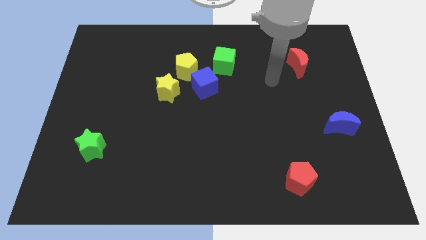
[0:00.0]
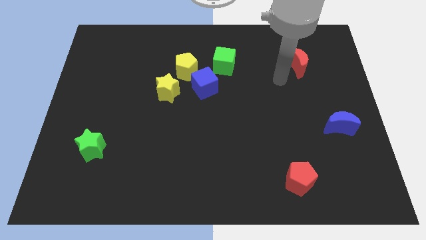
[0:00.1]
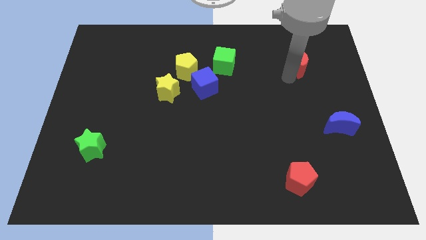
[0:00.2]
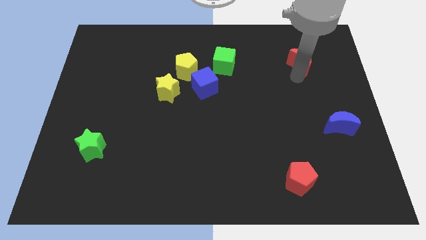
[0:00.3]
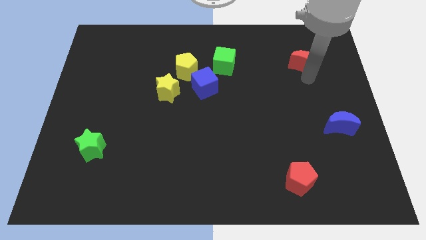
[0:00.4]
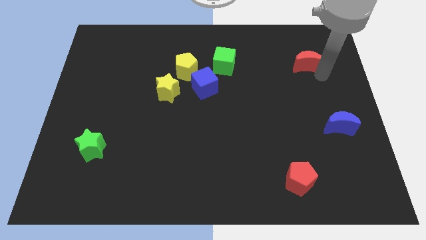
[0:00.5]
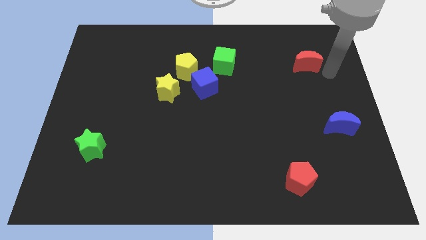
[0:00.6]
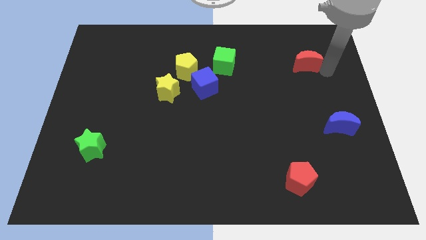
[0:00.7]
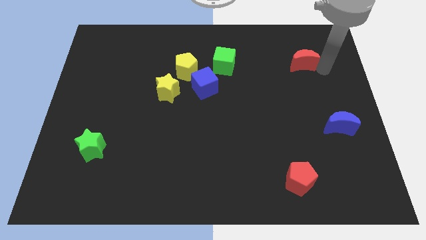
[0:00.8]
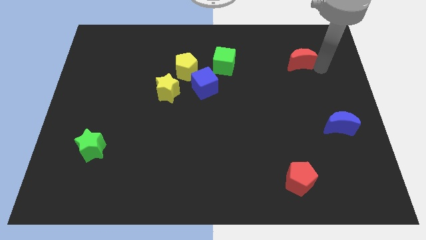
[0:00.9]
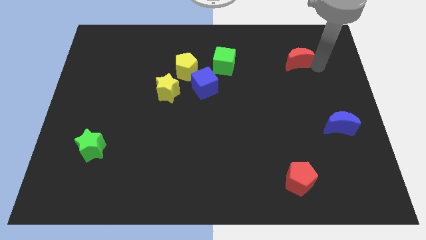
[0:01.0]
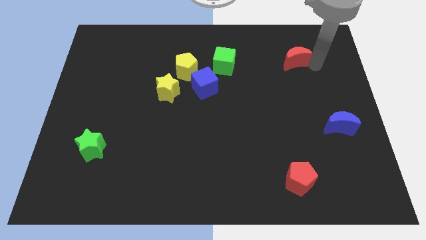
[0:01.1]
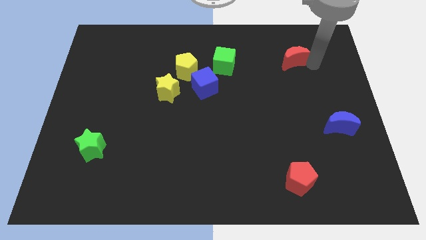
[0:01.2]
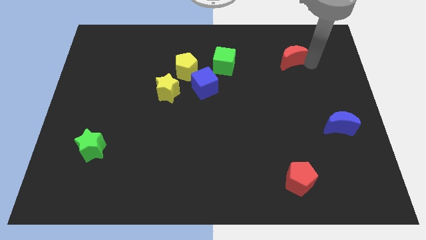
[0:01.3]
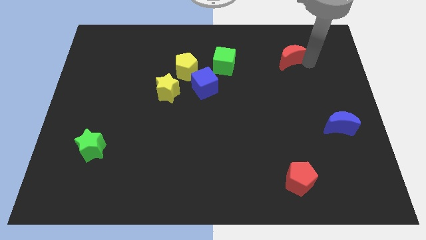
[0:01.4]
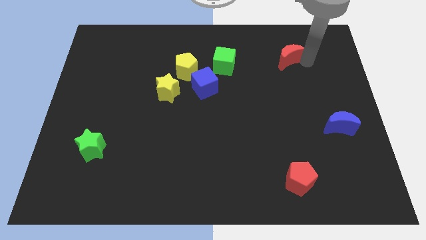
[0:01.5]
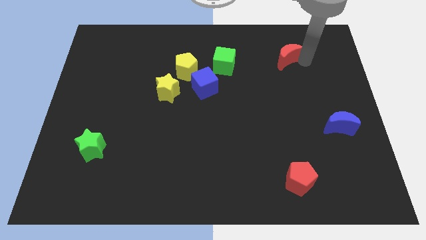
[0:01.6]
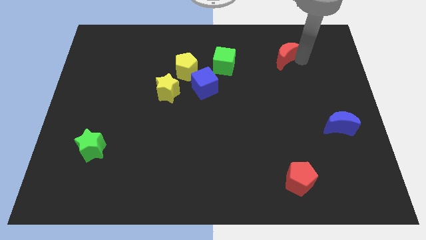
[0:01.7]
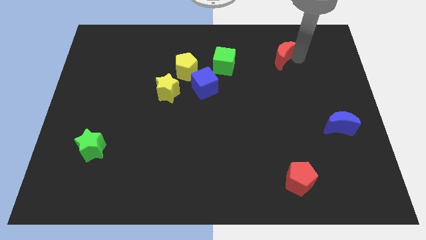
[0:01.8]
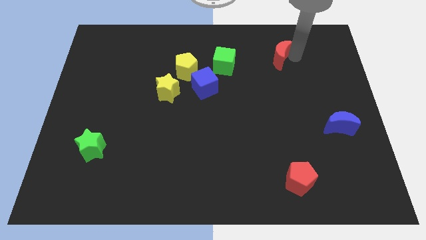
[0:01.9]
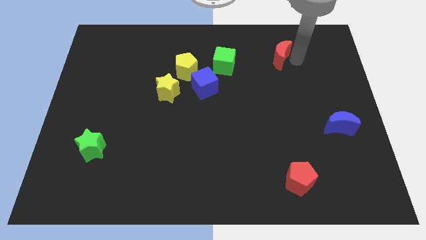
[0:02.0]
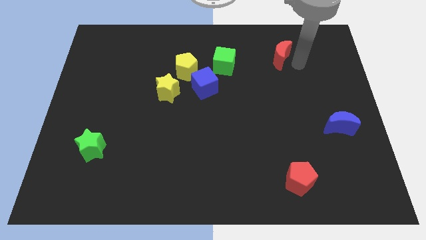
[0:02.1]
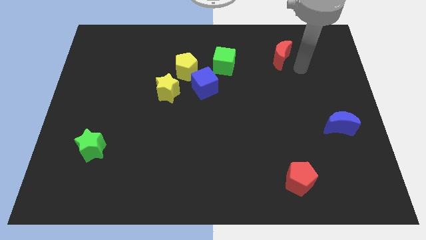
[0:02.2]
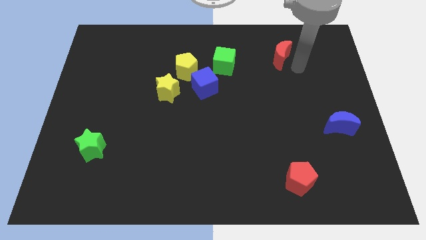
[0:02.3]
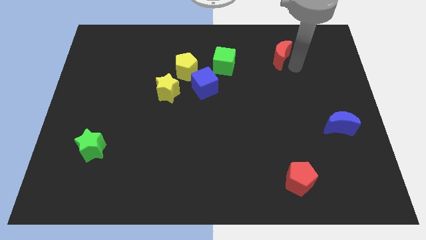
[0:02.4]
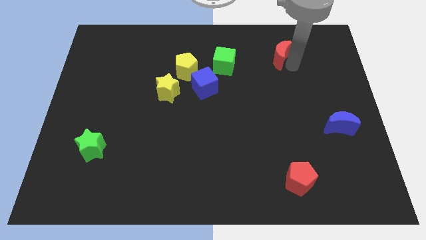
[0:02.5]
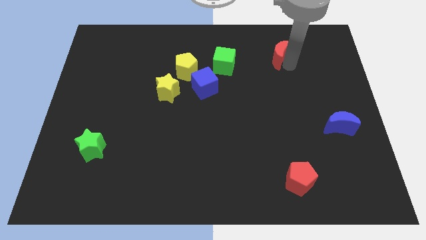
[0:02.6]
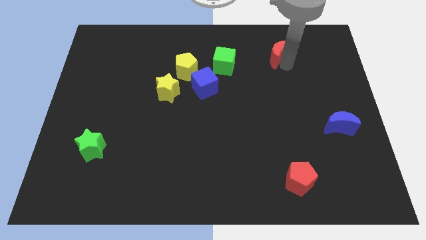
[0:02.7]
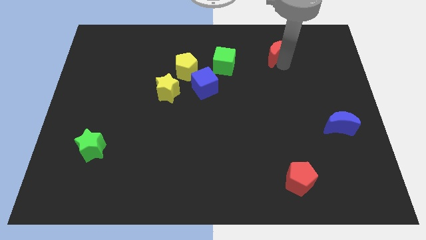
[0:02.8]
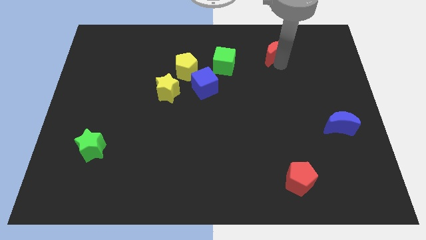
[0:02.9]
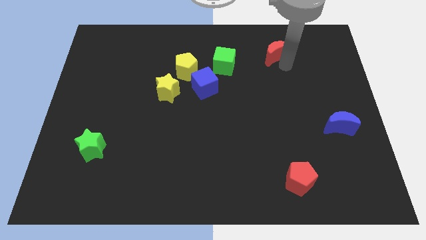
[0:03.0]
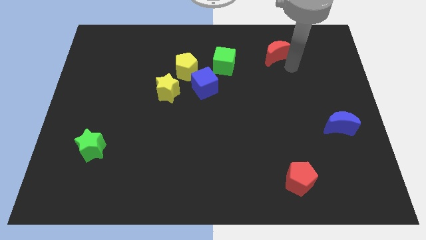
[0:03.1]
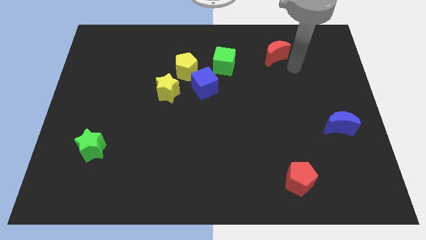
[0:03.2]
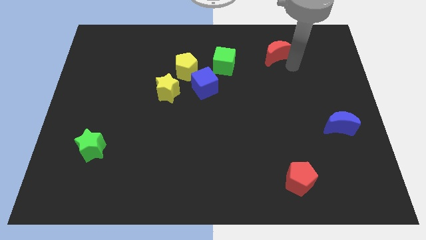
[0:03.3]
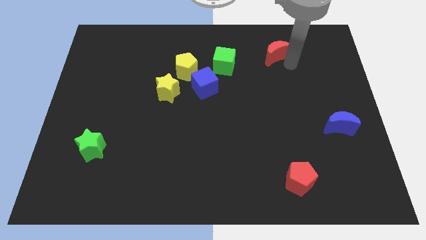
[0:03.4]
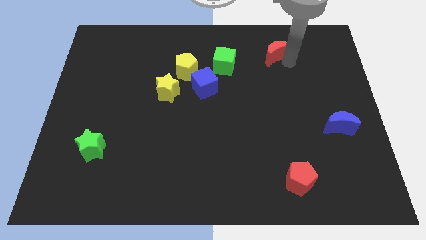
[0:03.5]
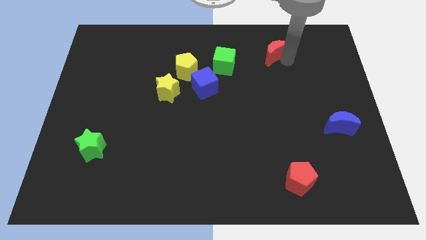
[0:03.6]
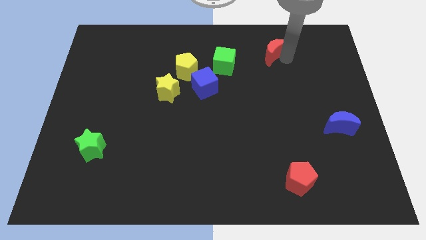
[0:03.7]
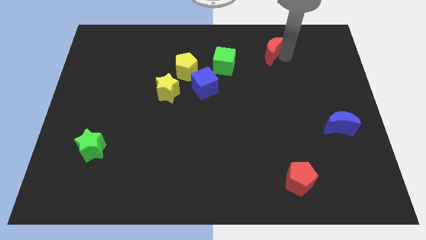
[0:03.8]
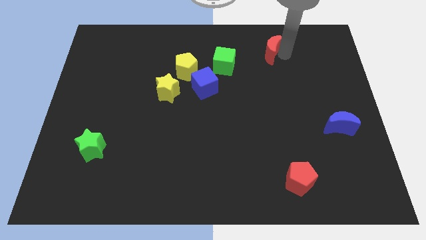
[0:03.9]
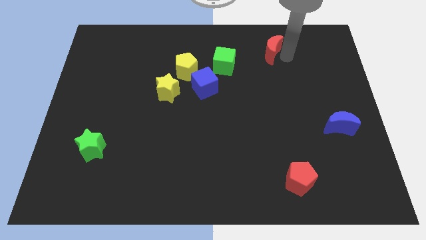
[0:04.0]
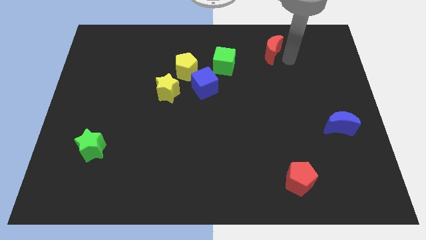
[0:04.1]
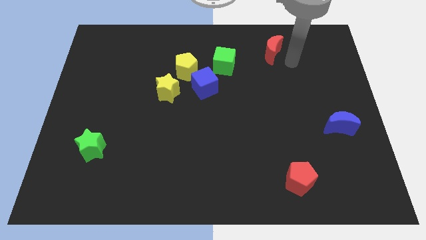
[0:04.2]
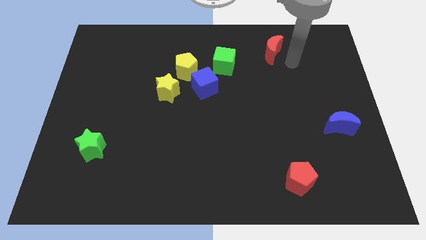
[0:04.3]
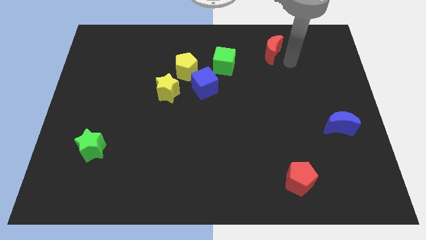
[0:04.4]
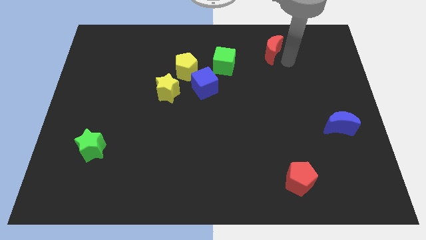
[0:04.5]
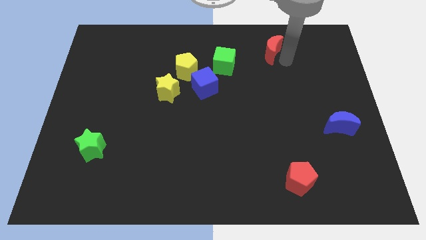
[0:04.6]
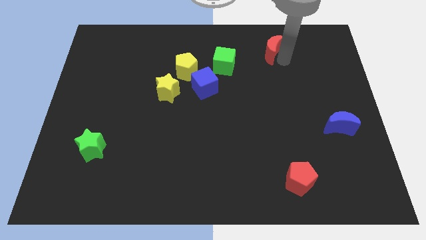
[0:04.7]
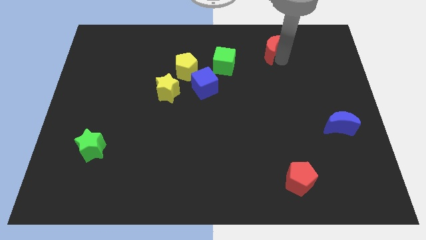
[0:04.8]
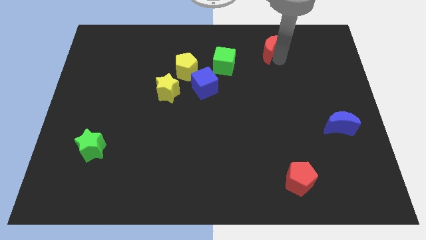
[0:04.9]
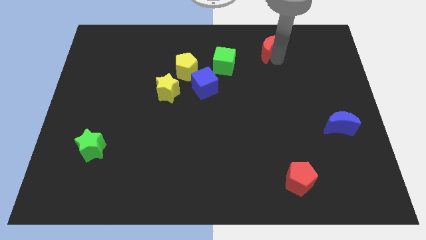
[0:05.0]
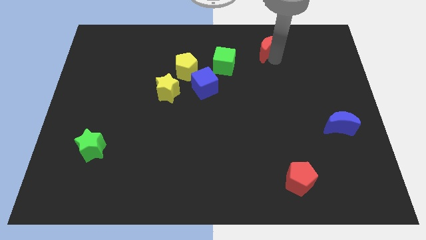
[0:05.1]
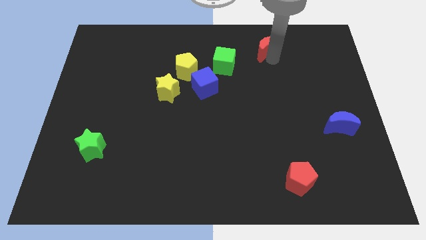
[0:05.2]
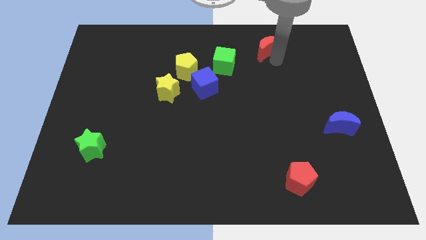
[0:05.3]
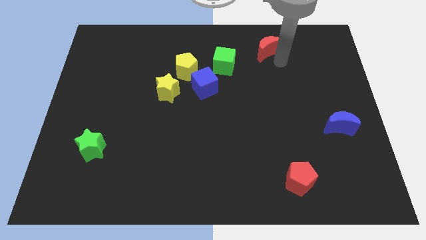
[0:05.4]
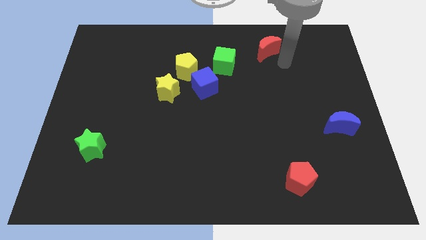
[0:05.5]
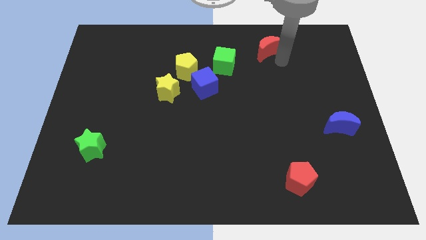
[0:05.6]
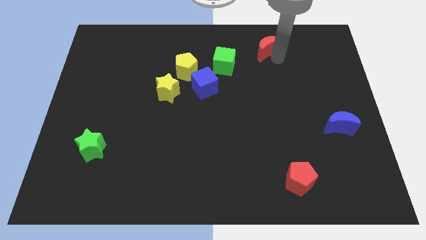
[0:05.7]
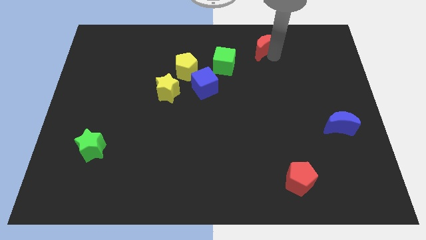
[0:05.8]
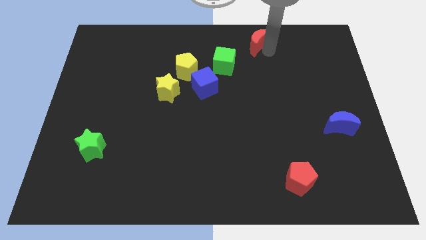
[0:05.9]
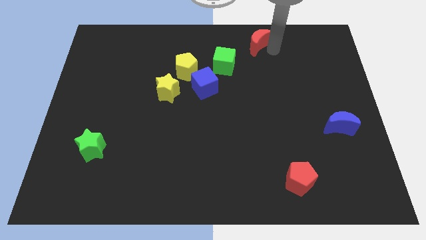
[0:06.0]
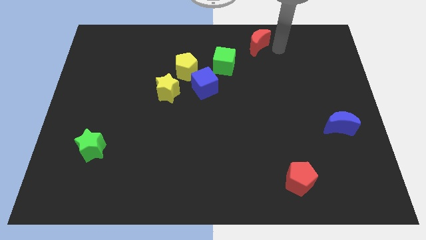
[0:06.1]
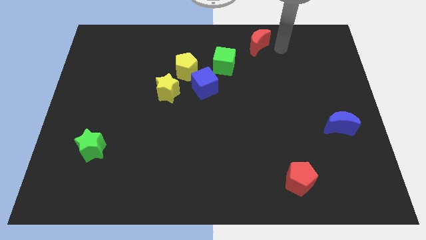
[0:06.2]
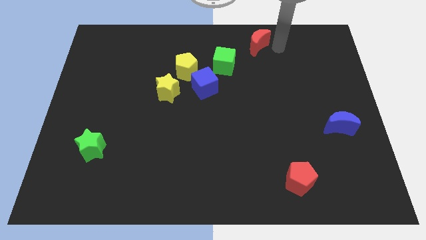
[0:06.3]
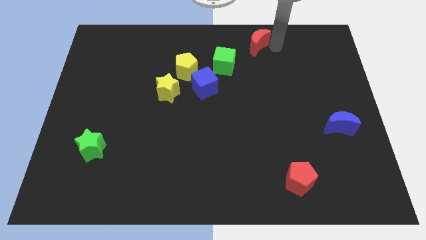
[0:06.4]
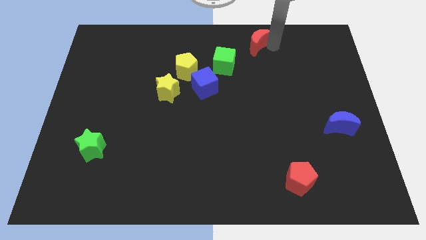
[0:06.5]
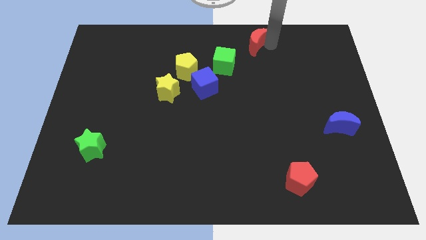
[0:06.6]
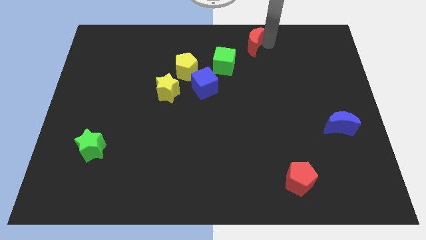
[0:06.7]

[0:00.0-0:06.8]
slide the red moon to the towards your base
